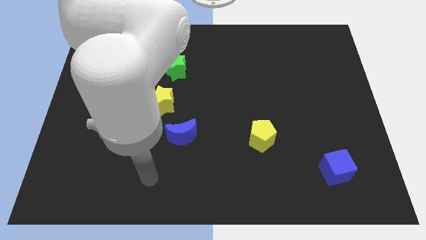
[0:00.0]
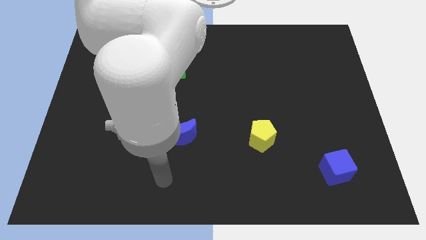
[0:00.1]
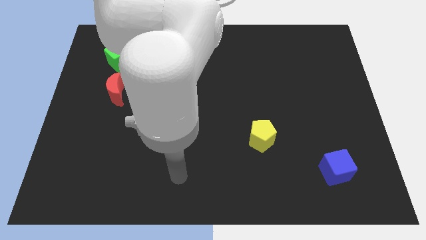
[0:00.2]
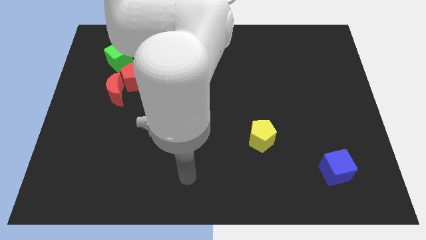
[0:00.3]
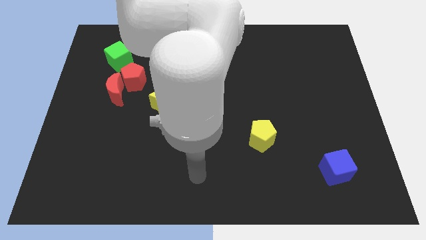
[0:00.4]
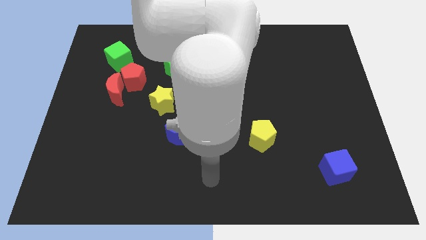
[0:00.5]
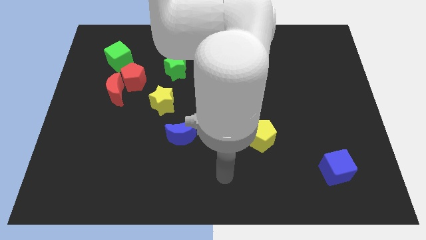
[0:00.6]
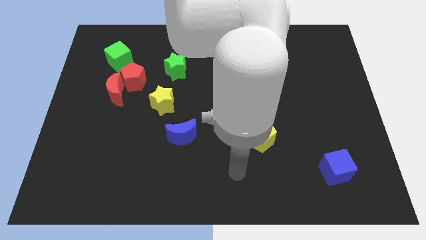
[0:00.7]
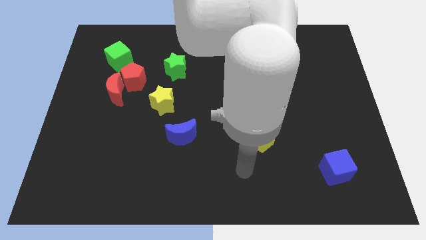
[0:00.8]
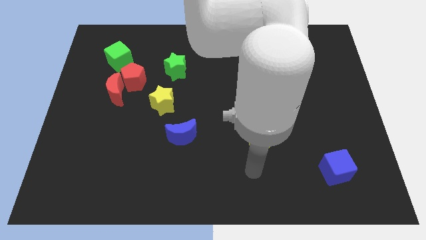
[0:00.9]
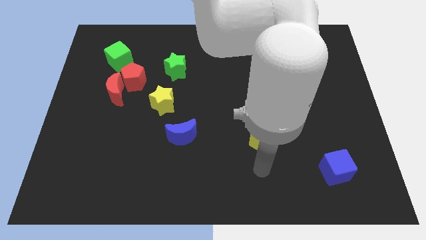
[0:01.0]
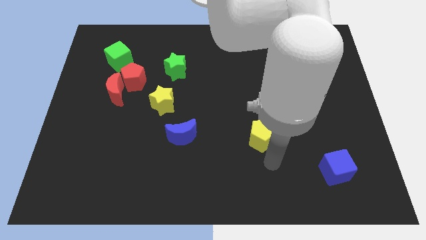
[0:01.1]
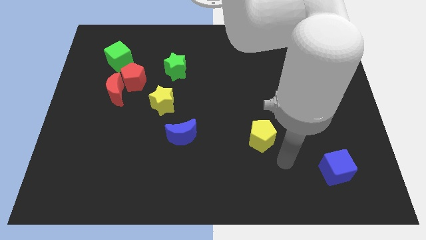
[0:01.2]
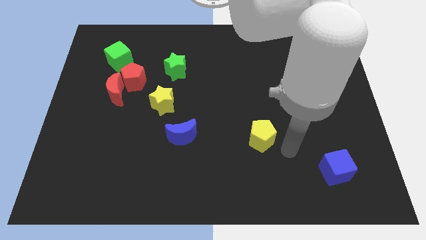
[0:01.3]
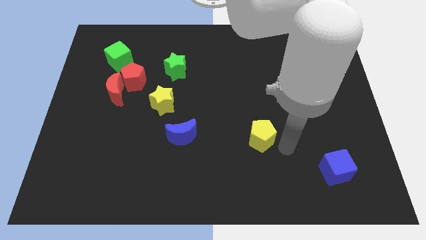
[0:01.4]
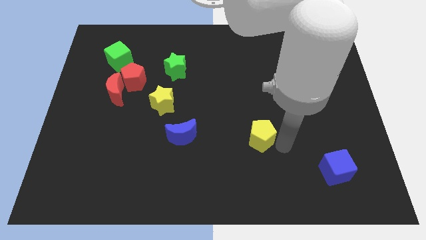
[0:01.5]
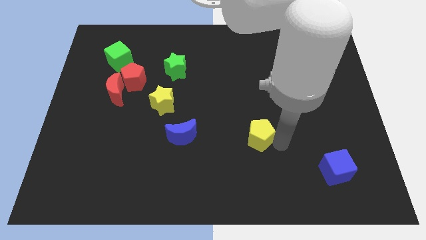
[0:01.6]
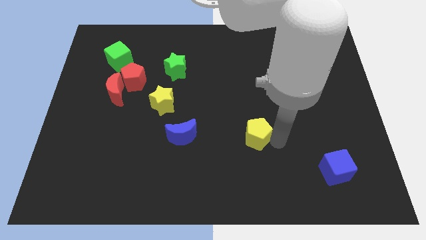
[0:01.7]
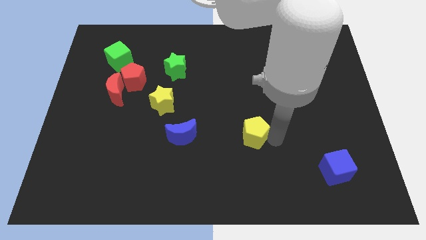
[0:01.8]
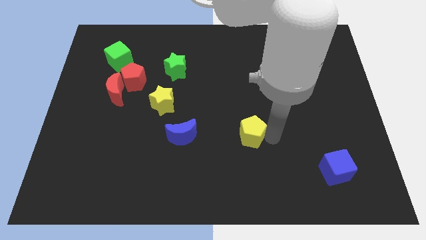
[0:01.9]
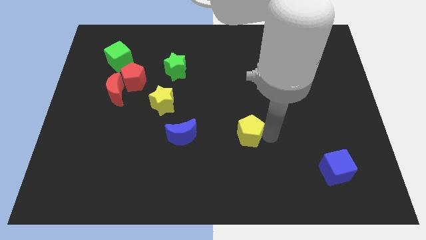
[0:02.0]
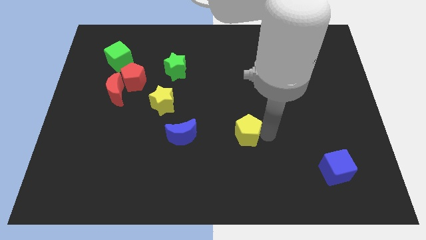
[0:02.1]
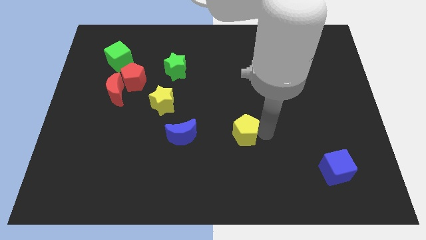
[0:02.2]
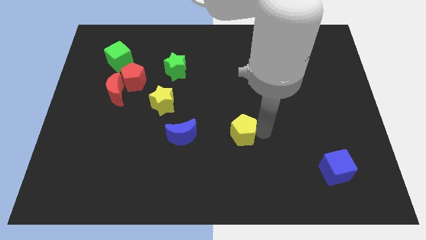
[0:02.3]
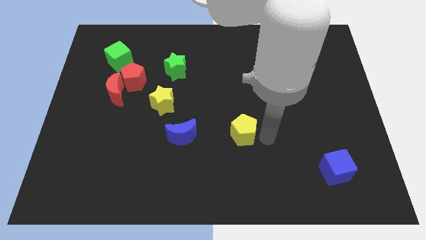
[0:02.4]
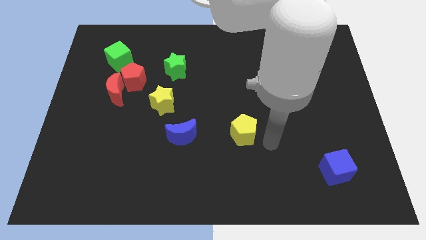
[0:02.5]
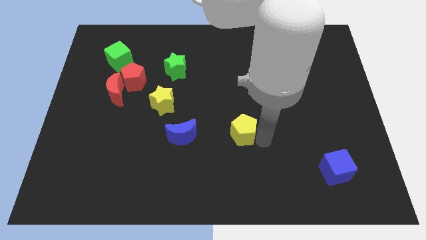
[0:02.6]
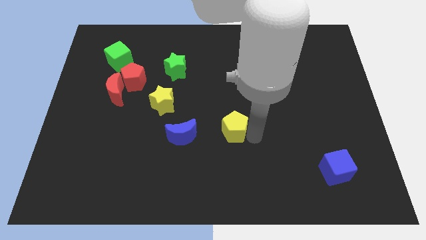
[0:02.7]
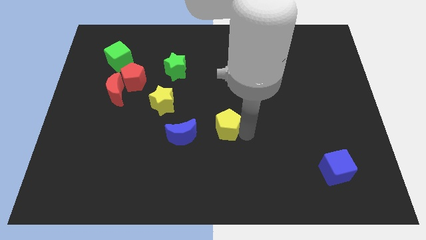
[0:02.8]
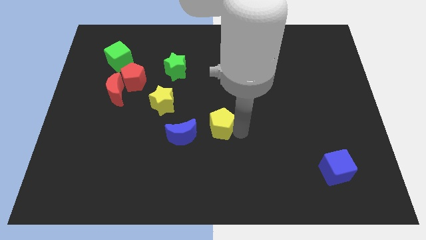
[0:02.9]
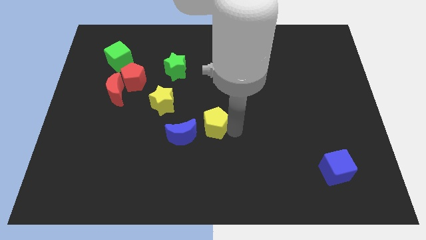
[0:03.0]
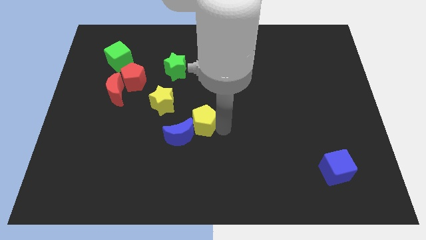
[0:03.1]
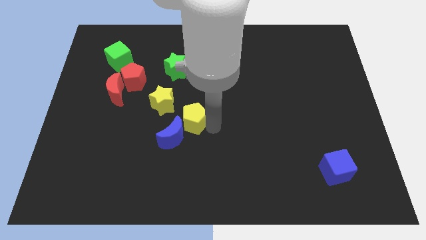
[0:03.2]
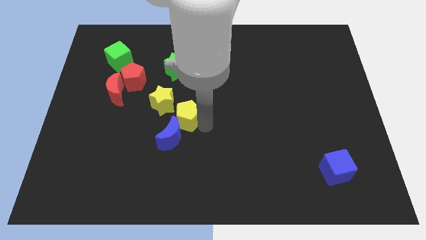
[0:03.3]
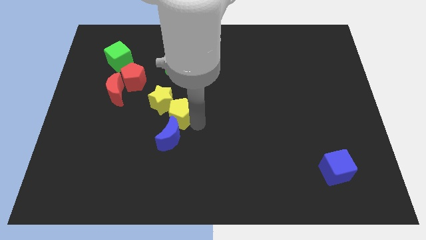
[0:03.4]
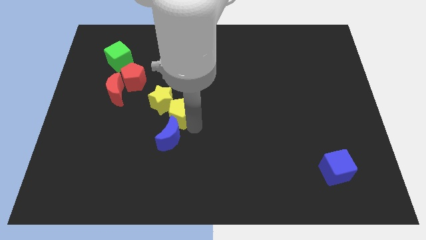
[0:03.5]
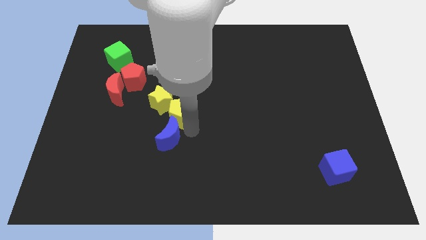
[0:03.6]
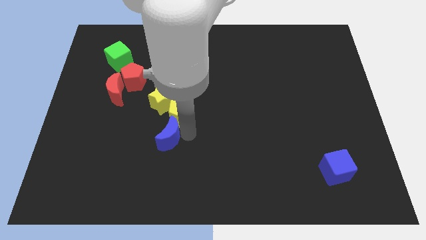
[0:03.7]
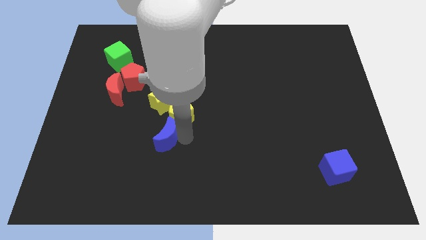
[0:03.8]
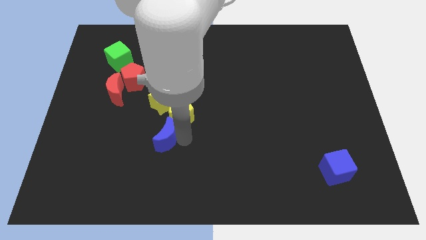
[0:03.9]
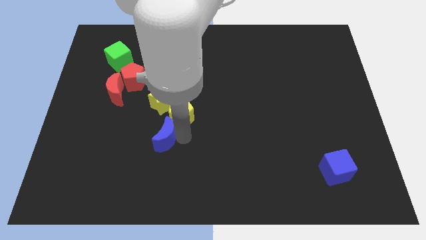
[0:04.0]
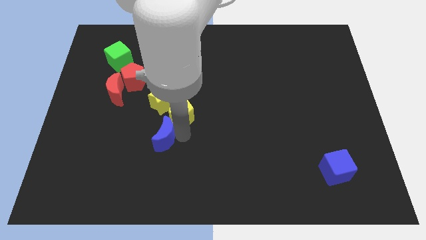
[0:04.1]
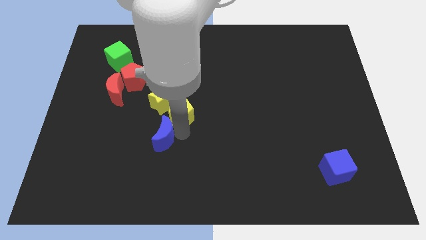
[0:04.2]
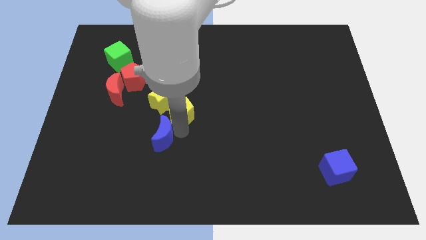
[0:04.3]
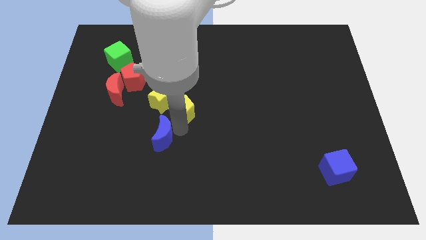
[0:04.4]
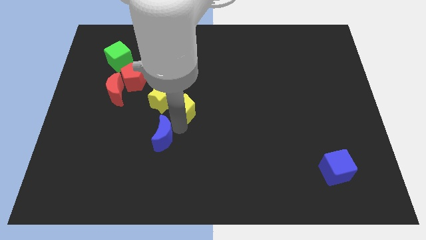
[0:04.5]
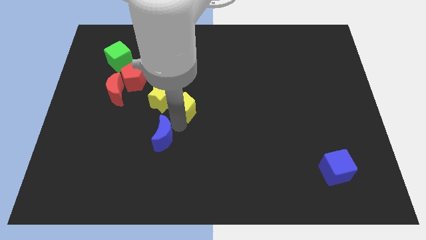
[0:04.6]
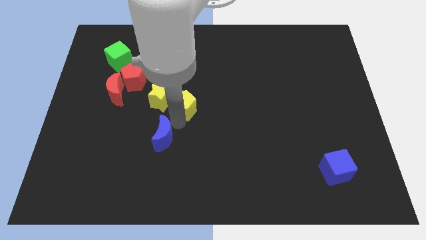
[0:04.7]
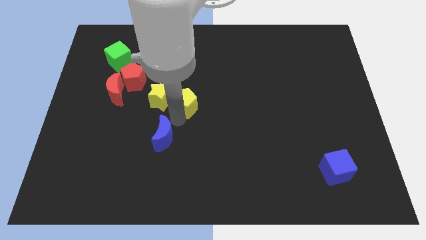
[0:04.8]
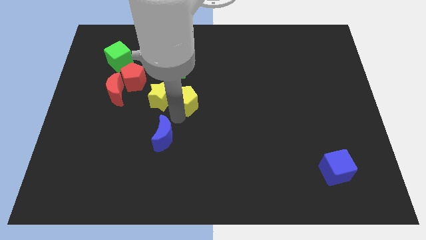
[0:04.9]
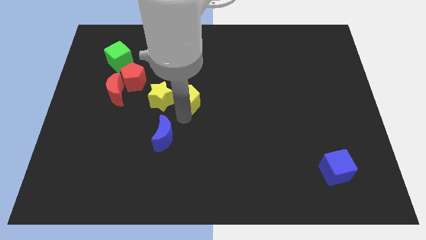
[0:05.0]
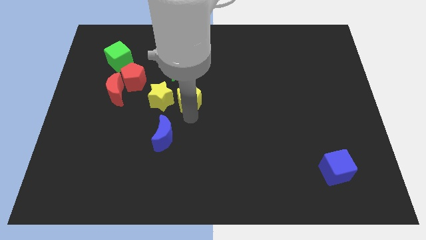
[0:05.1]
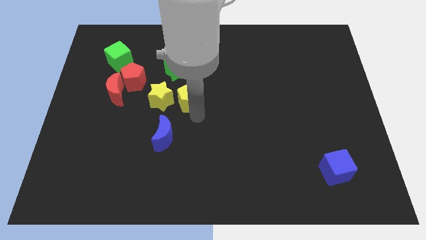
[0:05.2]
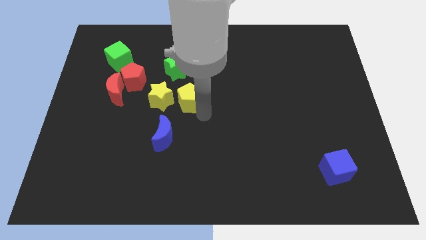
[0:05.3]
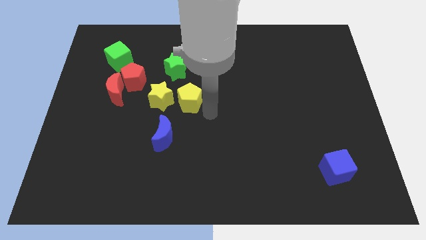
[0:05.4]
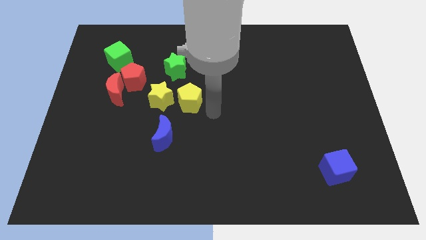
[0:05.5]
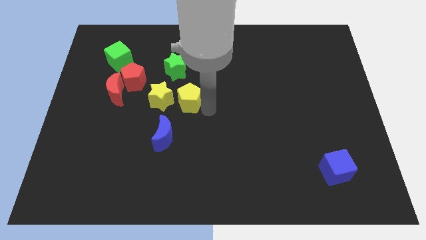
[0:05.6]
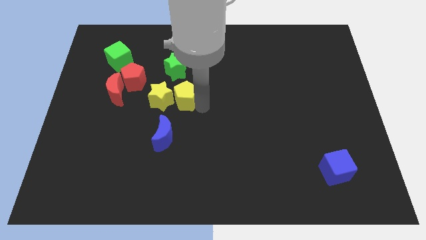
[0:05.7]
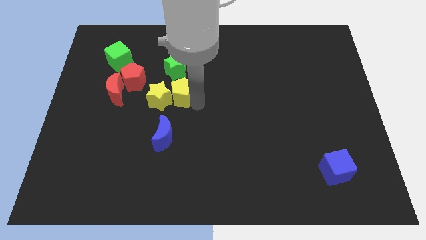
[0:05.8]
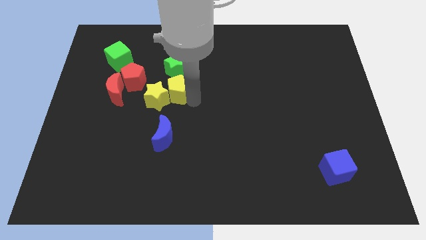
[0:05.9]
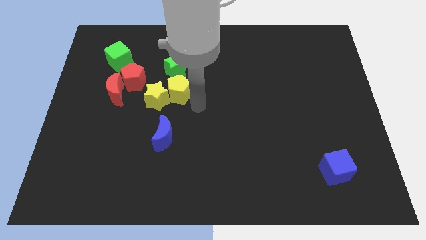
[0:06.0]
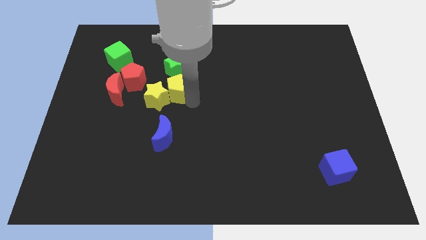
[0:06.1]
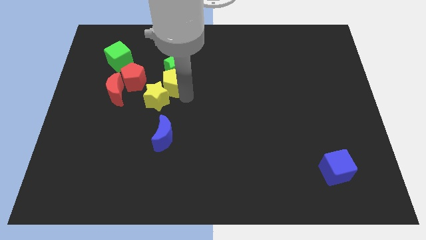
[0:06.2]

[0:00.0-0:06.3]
push the yellow pentagon above the yellow star
